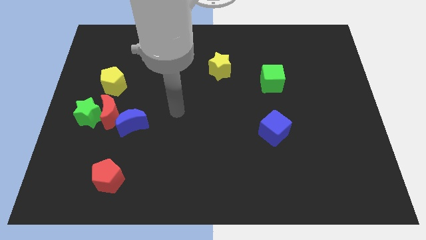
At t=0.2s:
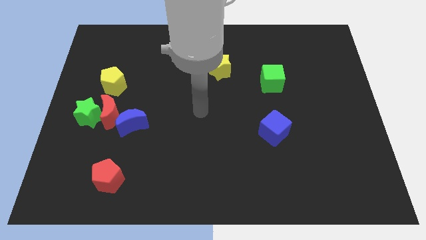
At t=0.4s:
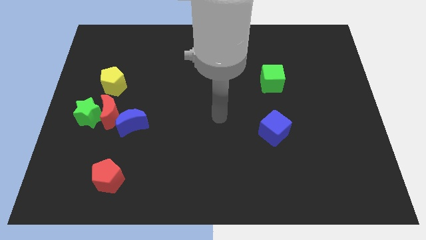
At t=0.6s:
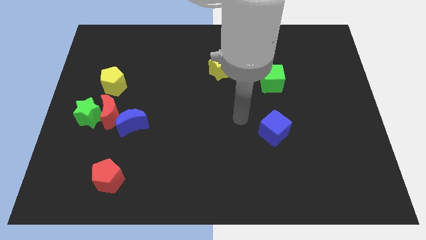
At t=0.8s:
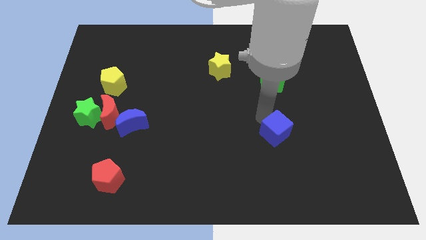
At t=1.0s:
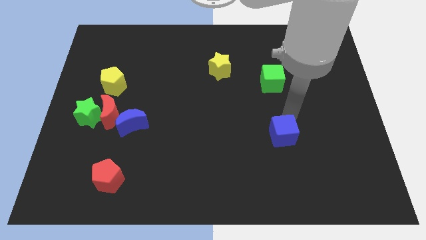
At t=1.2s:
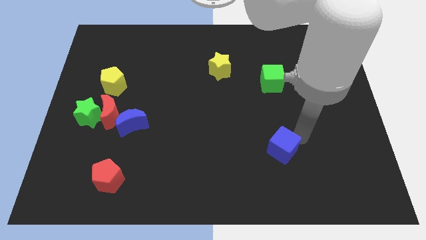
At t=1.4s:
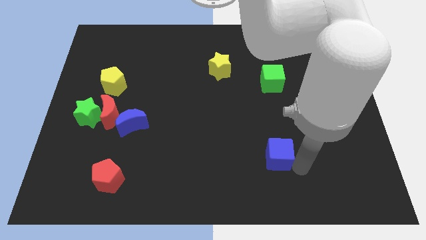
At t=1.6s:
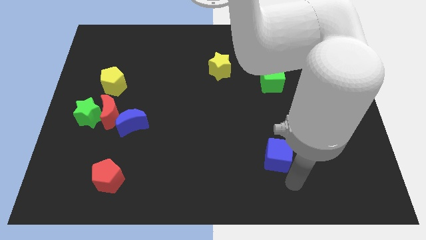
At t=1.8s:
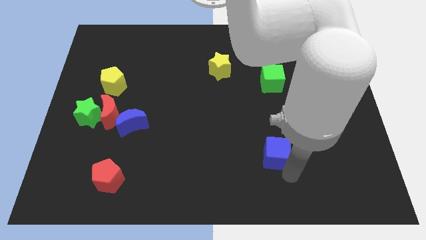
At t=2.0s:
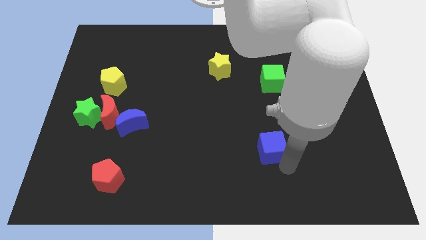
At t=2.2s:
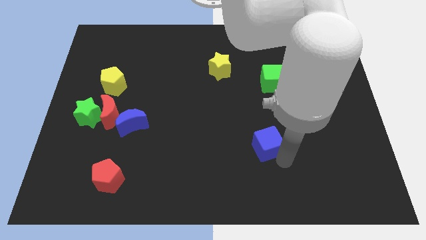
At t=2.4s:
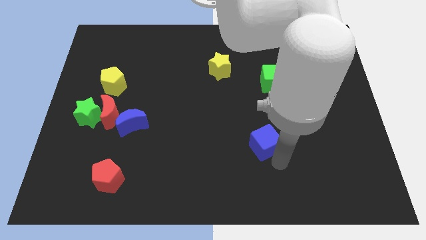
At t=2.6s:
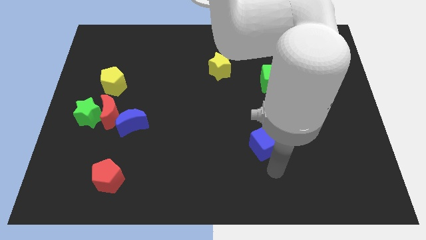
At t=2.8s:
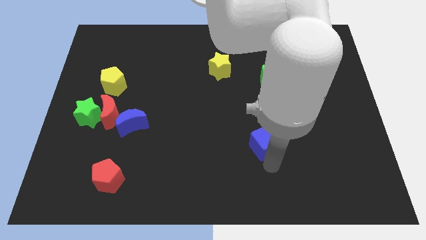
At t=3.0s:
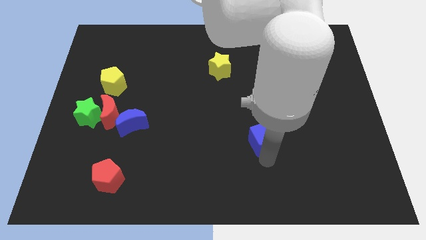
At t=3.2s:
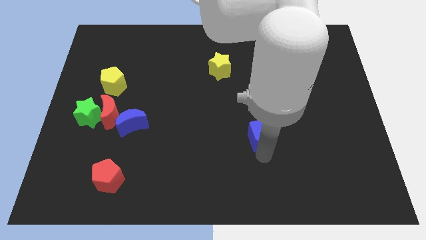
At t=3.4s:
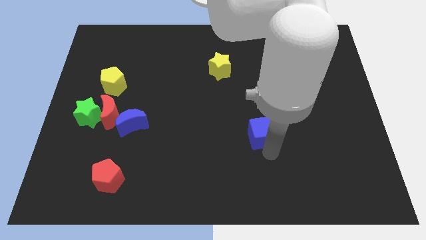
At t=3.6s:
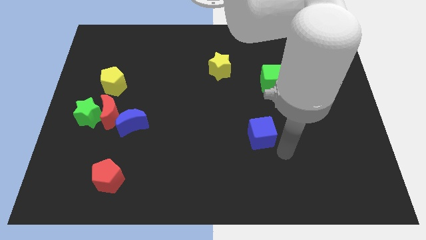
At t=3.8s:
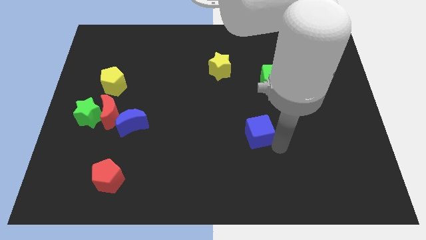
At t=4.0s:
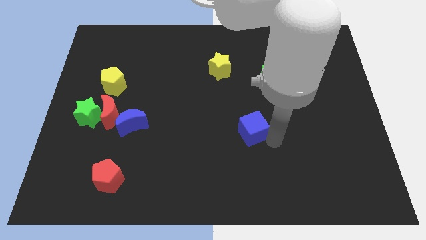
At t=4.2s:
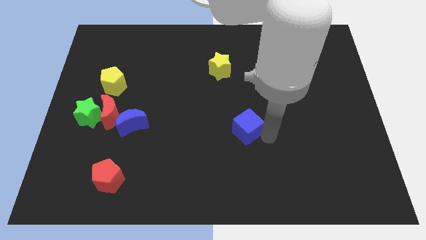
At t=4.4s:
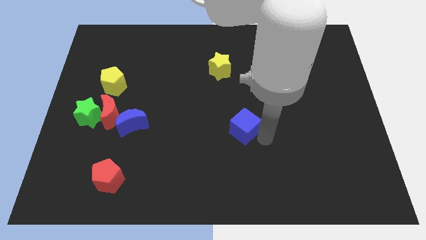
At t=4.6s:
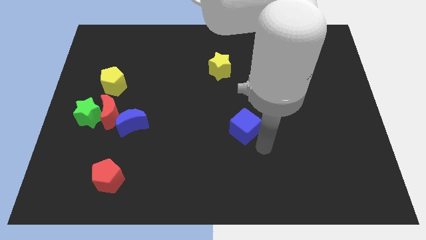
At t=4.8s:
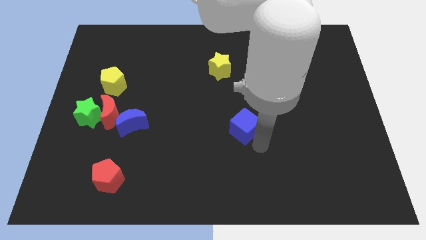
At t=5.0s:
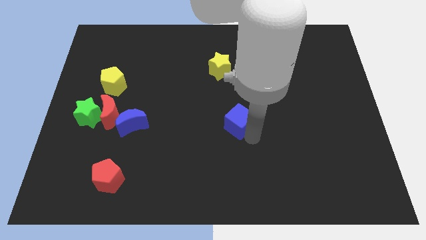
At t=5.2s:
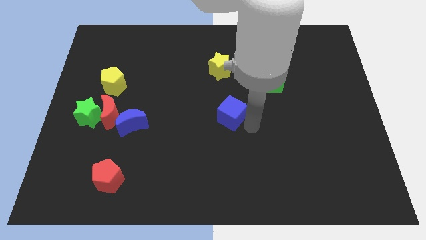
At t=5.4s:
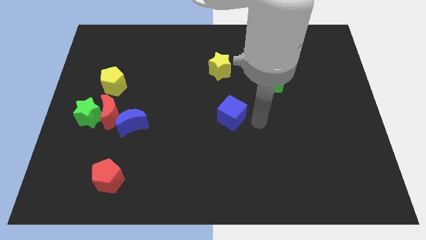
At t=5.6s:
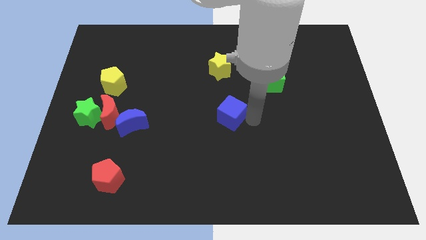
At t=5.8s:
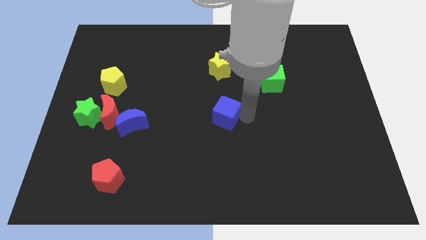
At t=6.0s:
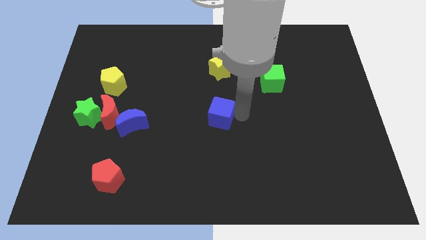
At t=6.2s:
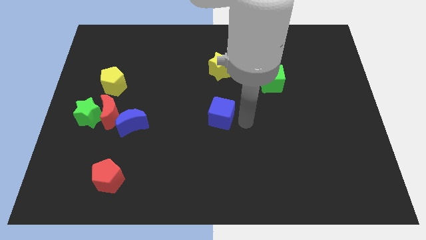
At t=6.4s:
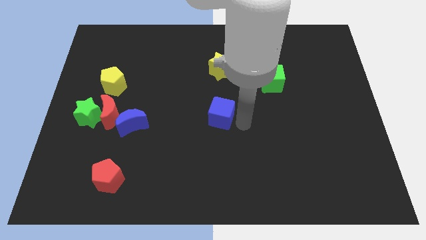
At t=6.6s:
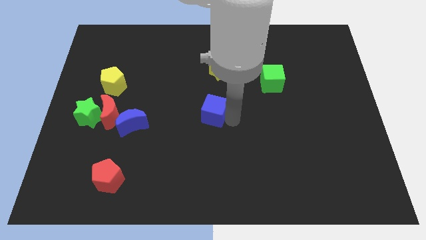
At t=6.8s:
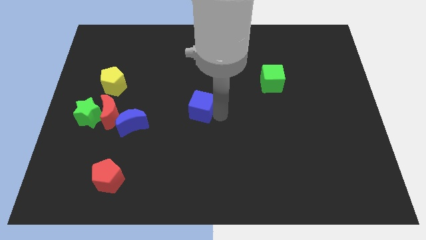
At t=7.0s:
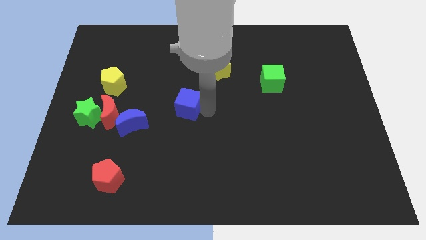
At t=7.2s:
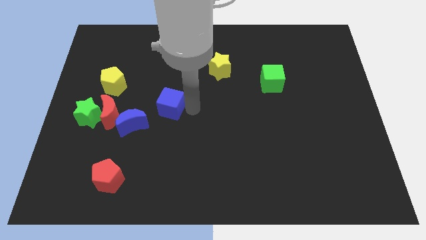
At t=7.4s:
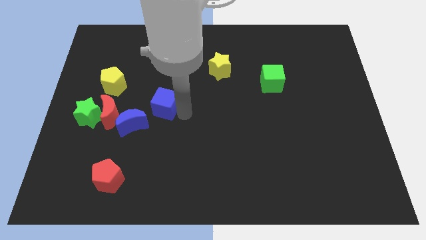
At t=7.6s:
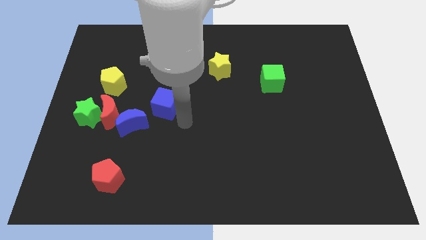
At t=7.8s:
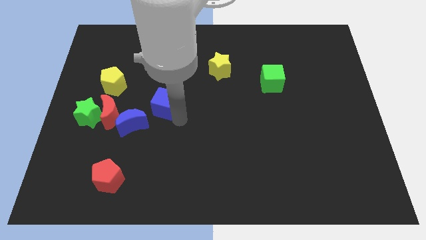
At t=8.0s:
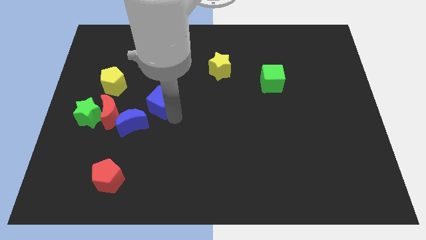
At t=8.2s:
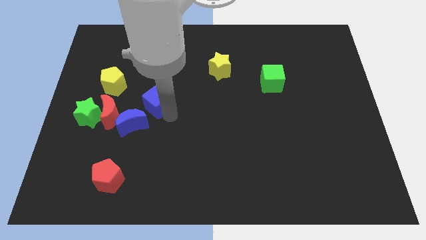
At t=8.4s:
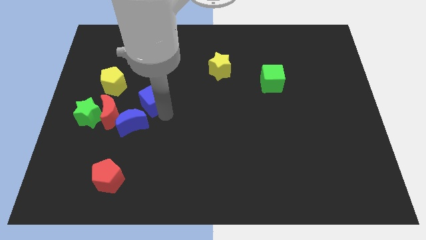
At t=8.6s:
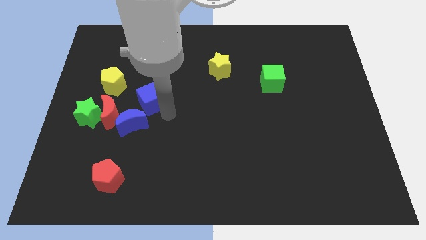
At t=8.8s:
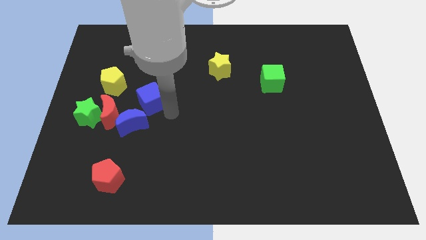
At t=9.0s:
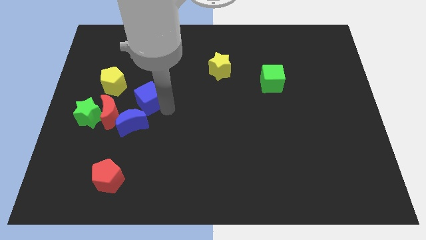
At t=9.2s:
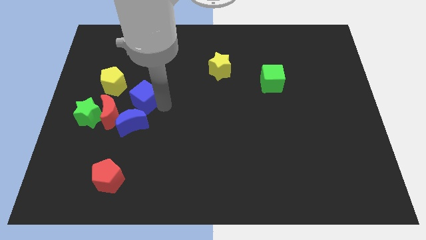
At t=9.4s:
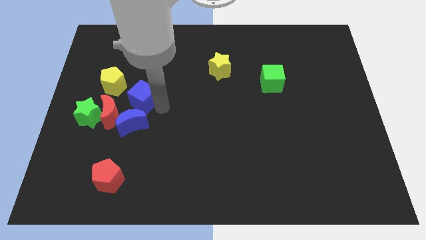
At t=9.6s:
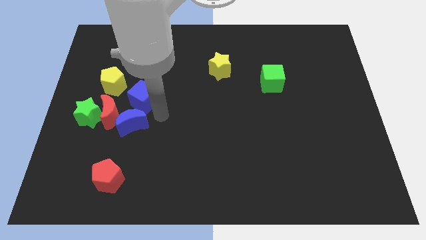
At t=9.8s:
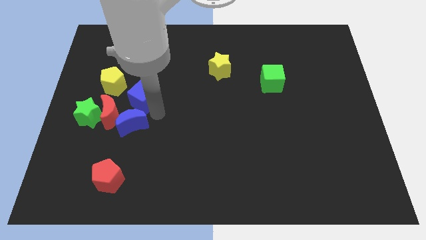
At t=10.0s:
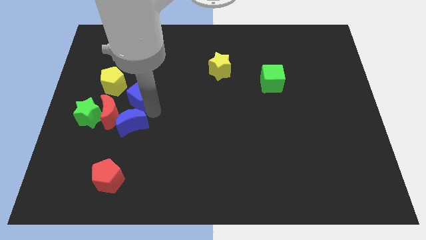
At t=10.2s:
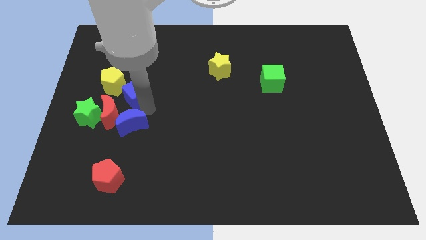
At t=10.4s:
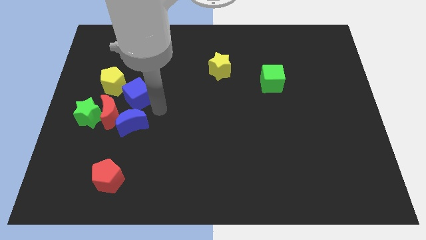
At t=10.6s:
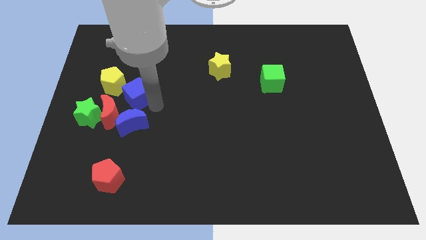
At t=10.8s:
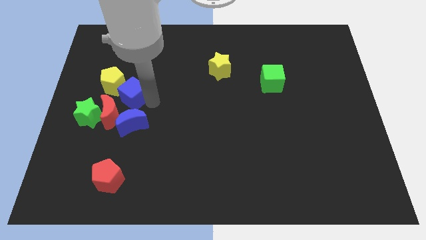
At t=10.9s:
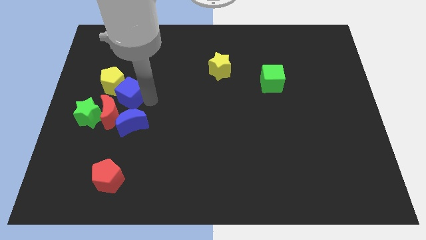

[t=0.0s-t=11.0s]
push the blue cube to the yellow pentagon

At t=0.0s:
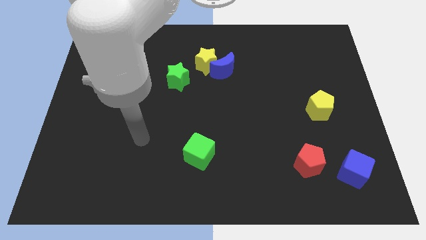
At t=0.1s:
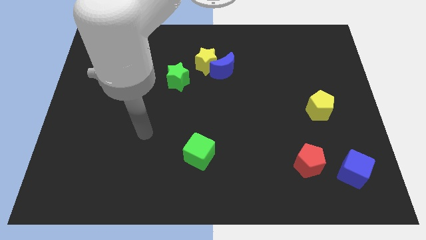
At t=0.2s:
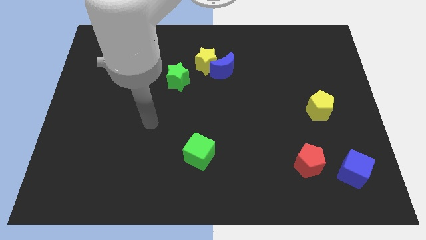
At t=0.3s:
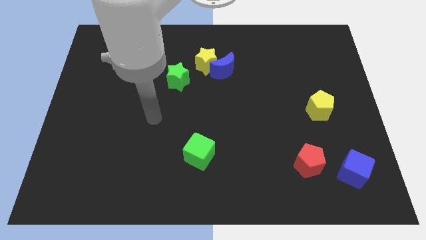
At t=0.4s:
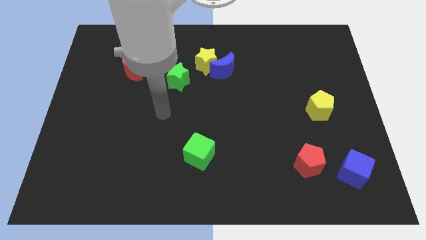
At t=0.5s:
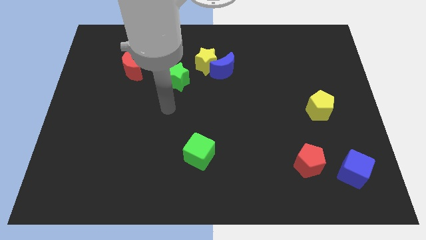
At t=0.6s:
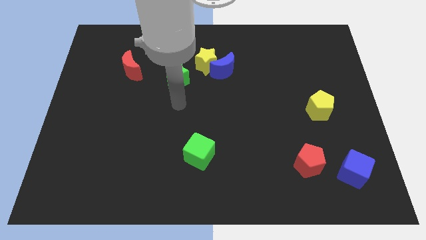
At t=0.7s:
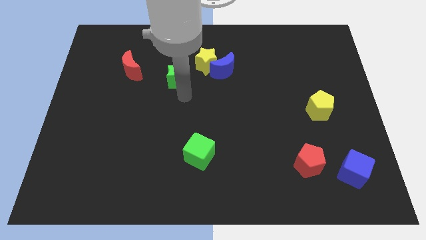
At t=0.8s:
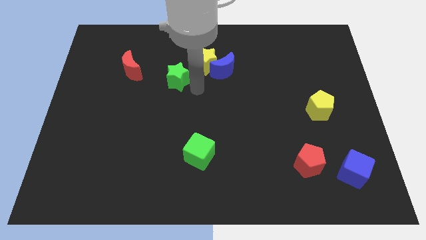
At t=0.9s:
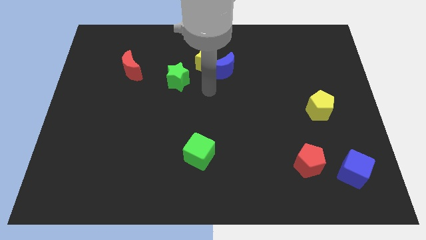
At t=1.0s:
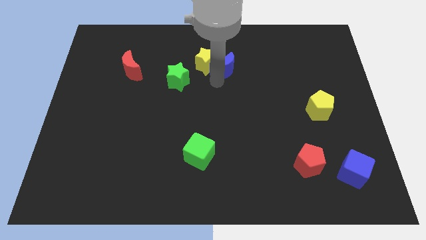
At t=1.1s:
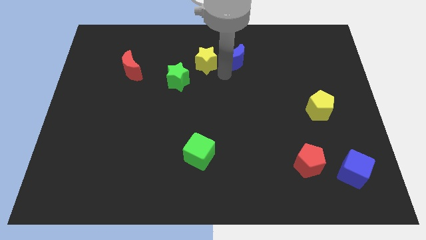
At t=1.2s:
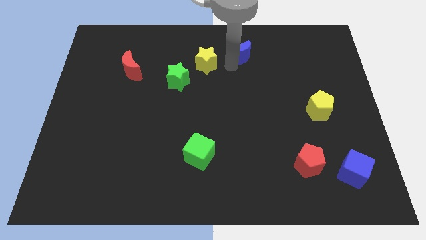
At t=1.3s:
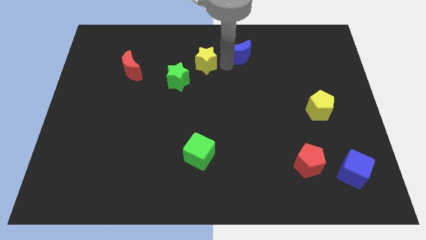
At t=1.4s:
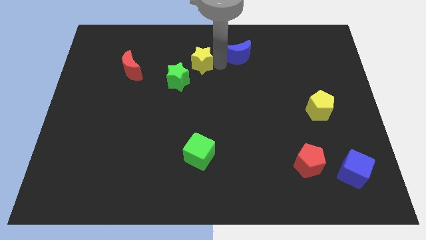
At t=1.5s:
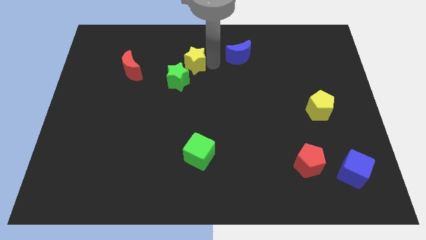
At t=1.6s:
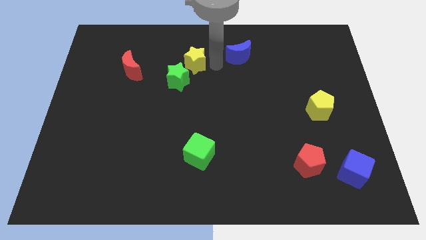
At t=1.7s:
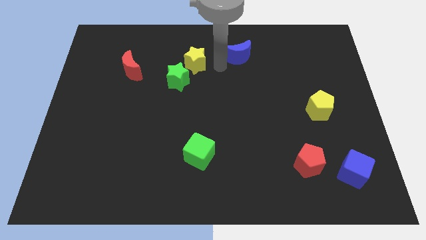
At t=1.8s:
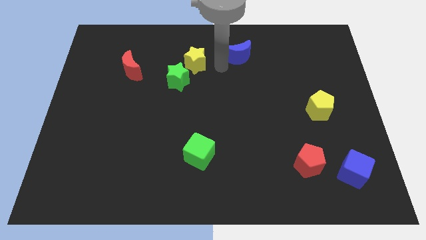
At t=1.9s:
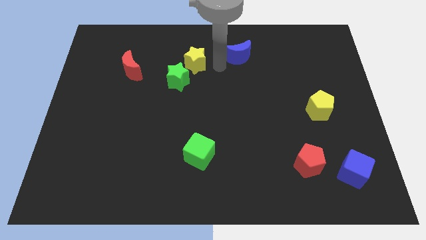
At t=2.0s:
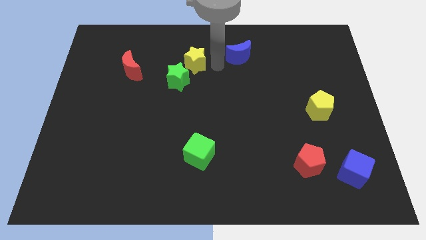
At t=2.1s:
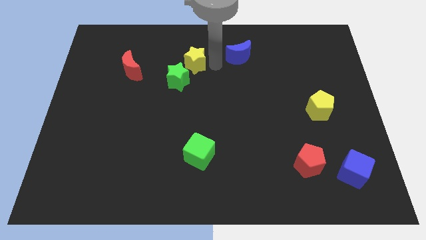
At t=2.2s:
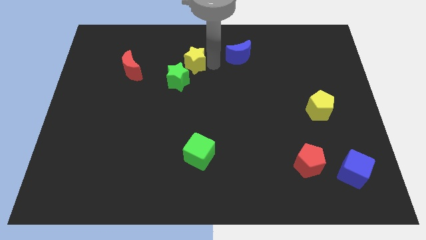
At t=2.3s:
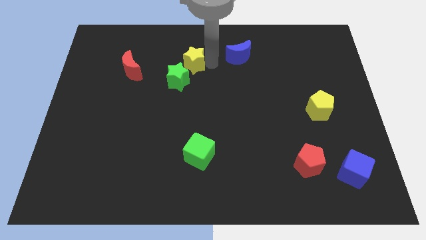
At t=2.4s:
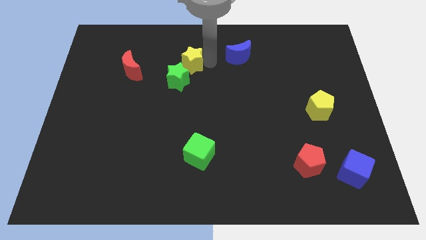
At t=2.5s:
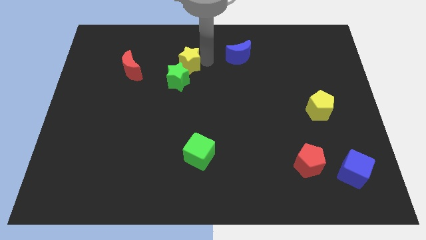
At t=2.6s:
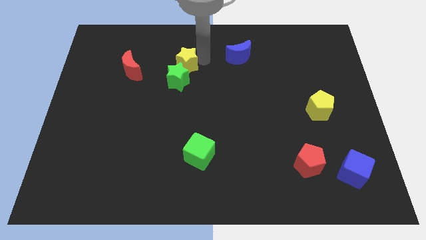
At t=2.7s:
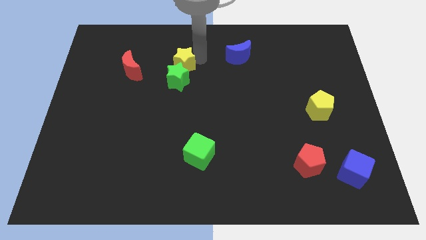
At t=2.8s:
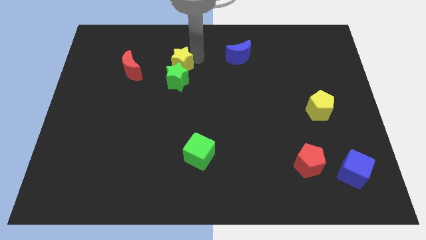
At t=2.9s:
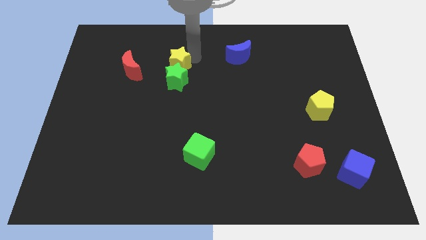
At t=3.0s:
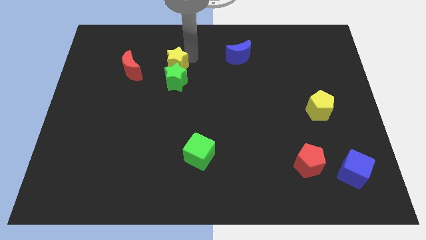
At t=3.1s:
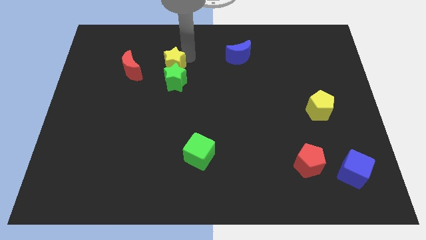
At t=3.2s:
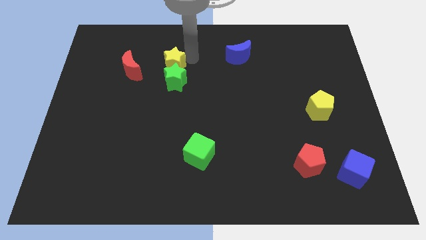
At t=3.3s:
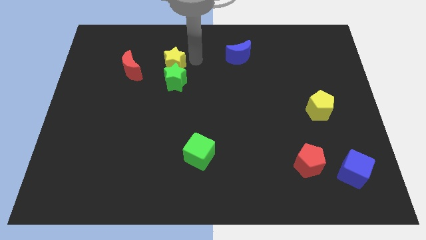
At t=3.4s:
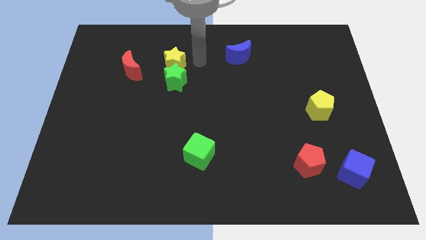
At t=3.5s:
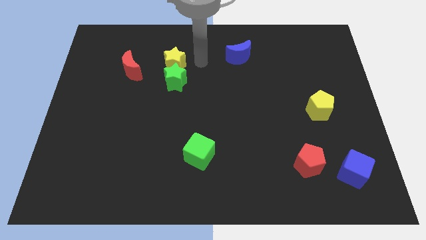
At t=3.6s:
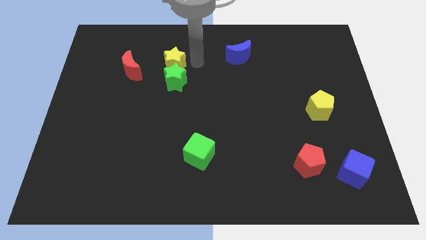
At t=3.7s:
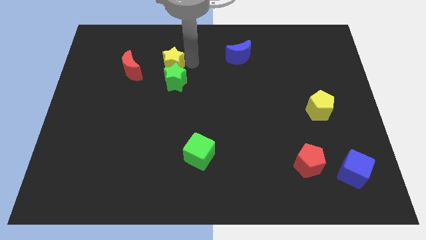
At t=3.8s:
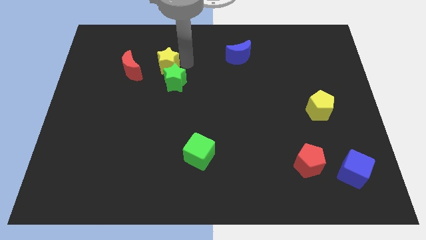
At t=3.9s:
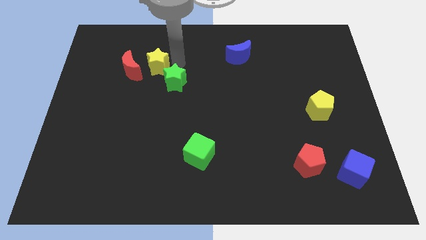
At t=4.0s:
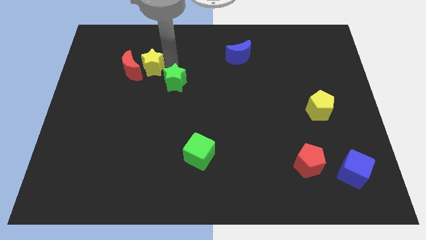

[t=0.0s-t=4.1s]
move the yellow star to the red moon
